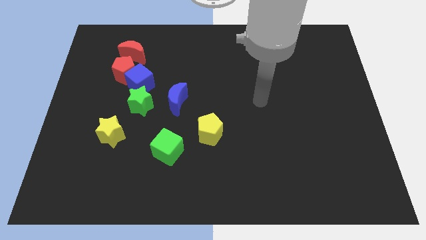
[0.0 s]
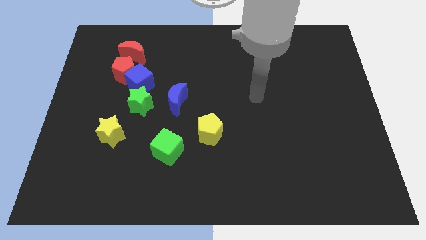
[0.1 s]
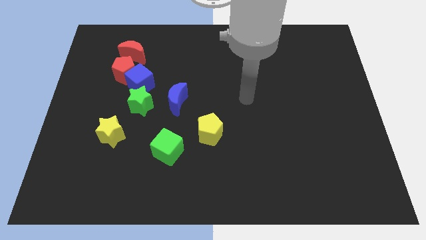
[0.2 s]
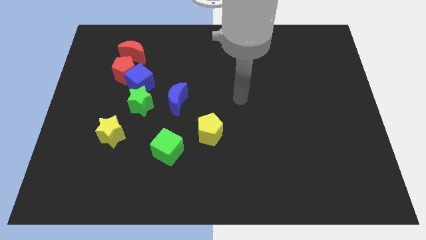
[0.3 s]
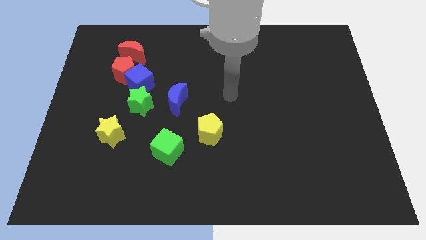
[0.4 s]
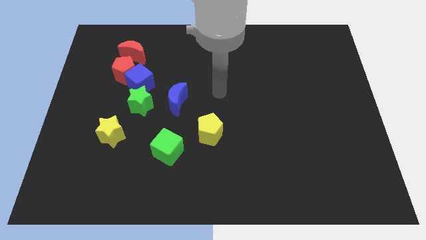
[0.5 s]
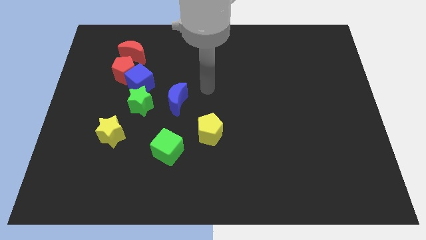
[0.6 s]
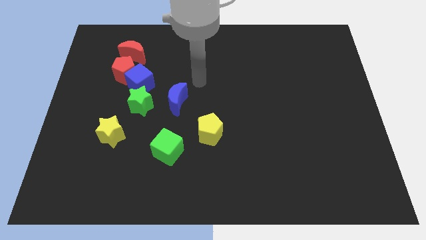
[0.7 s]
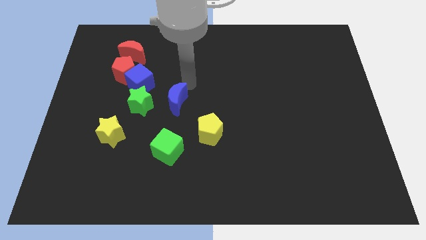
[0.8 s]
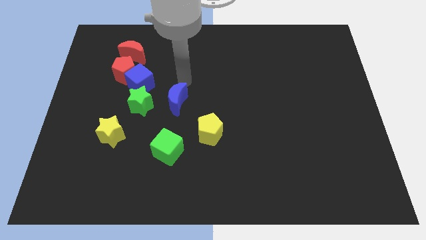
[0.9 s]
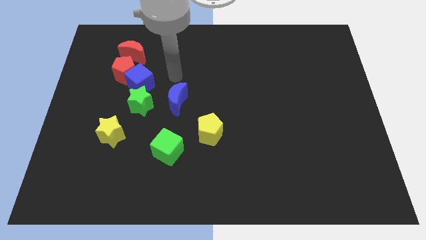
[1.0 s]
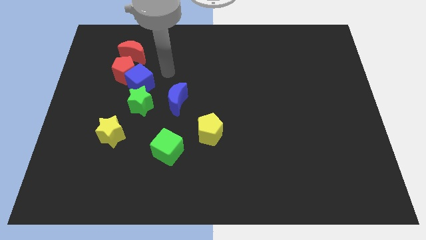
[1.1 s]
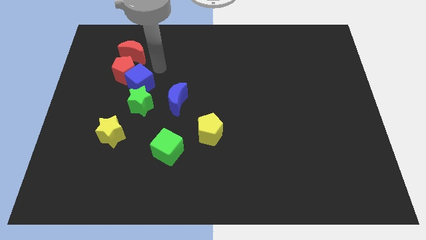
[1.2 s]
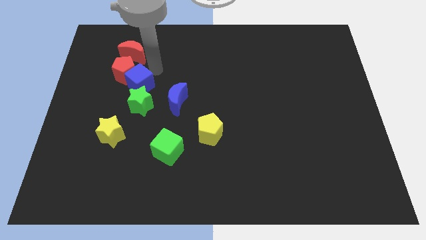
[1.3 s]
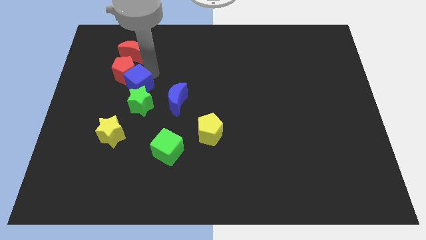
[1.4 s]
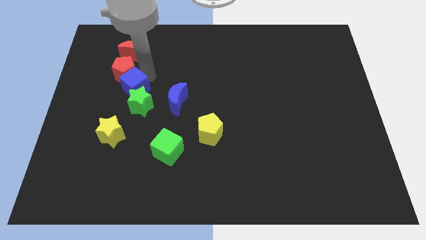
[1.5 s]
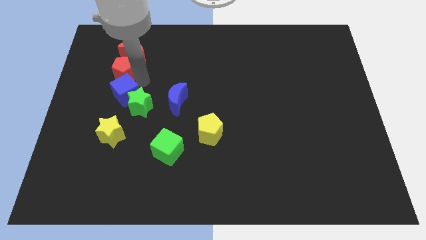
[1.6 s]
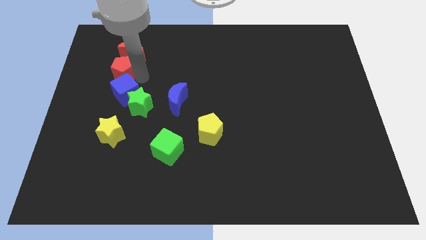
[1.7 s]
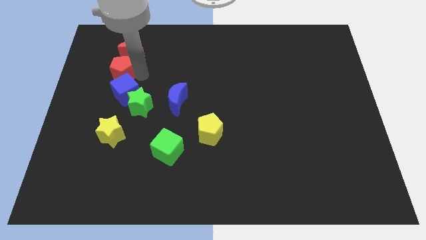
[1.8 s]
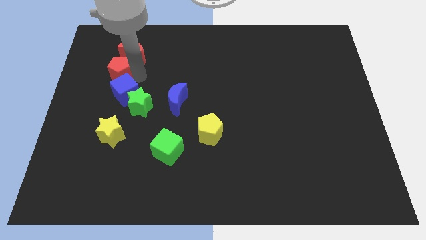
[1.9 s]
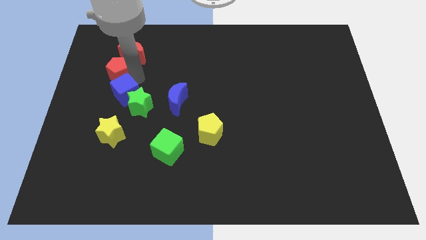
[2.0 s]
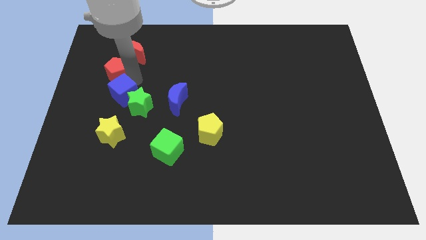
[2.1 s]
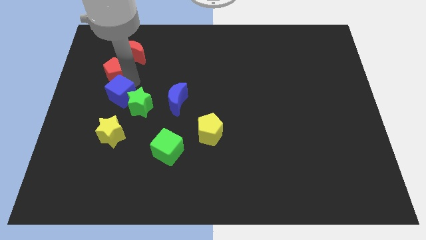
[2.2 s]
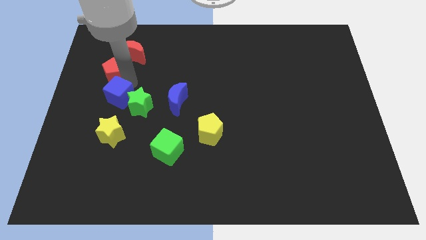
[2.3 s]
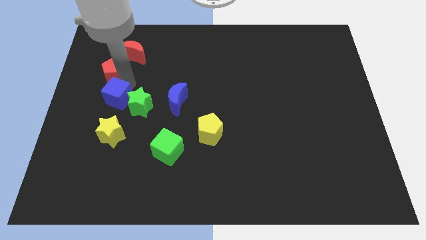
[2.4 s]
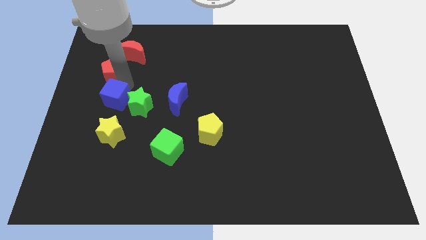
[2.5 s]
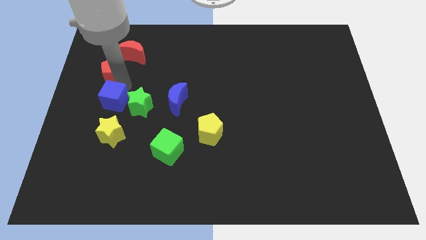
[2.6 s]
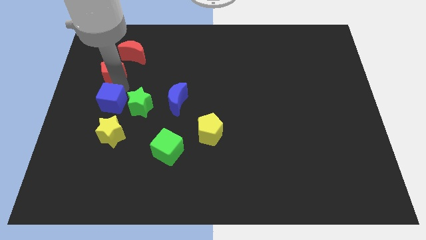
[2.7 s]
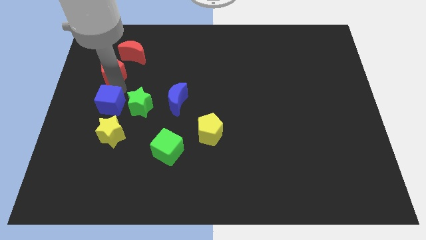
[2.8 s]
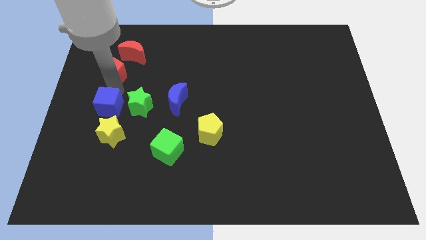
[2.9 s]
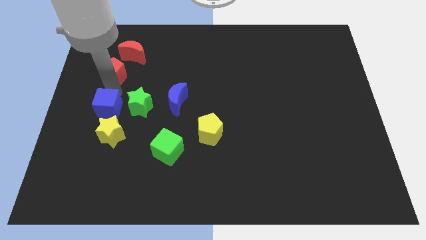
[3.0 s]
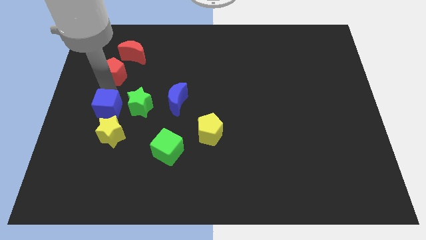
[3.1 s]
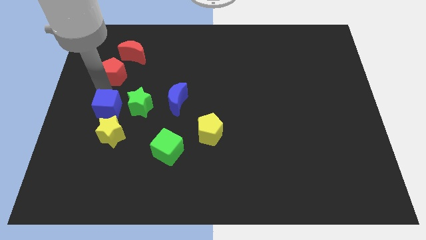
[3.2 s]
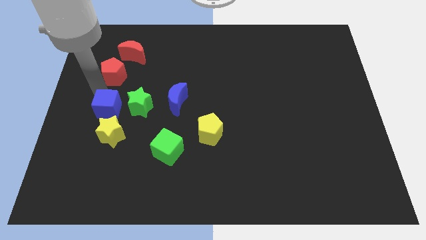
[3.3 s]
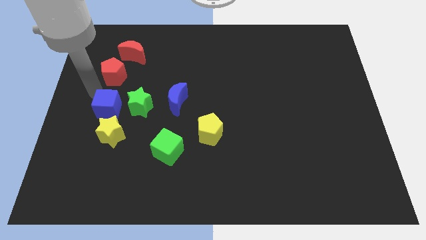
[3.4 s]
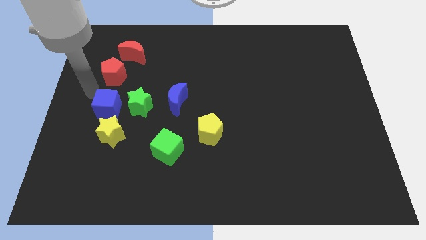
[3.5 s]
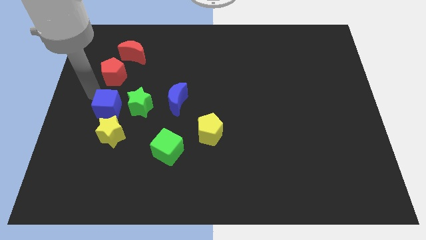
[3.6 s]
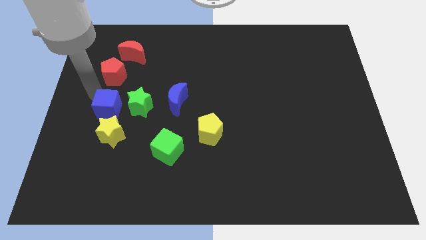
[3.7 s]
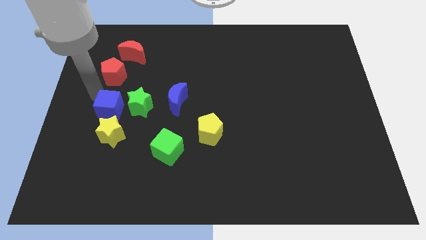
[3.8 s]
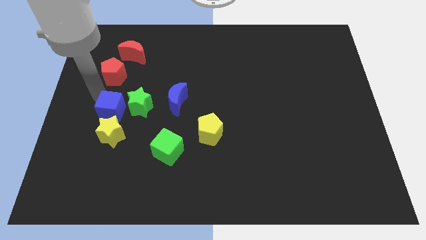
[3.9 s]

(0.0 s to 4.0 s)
push the blue cube somewhat downwards

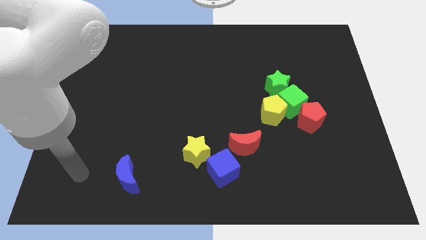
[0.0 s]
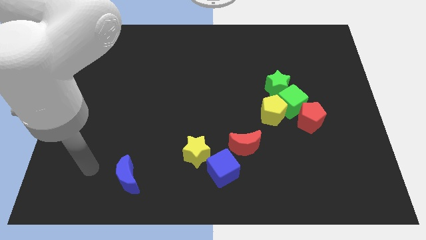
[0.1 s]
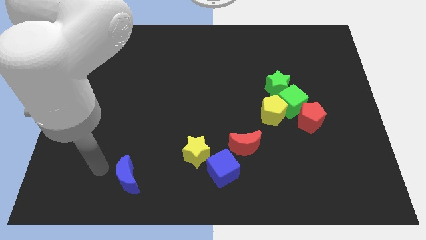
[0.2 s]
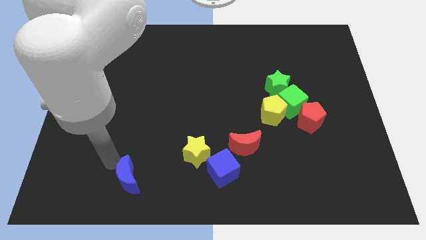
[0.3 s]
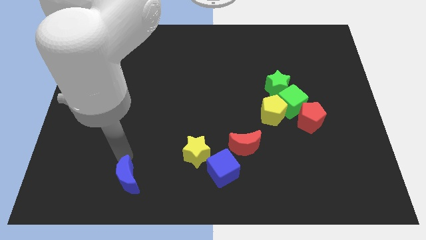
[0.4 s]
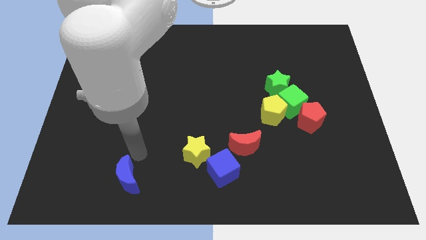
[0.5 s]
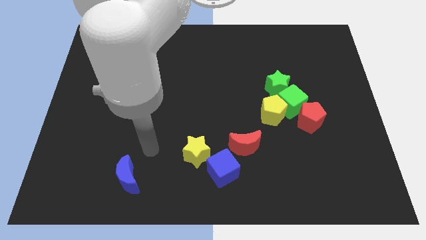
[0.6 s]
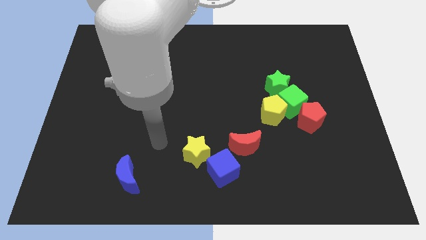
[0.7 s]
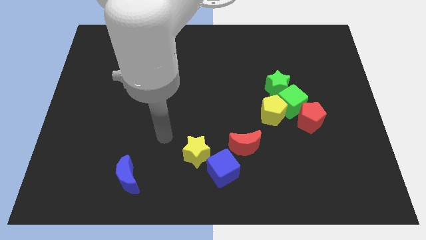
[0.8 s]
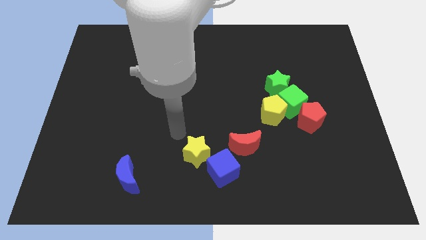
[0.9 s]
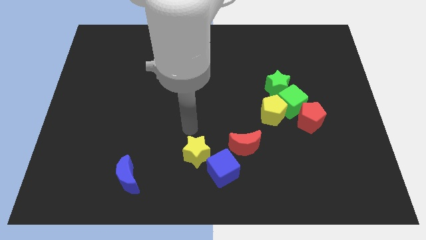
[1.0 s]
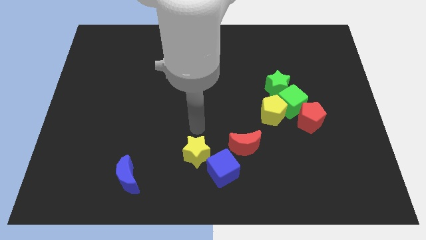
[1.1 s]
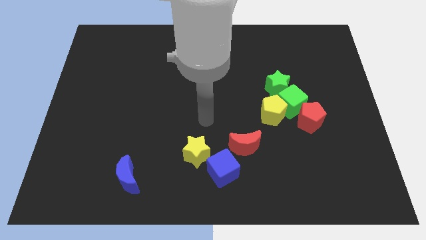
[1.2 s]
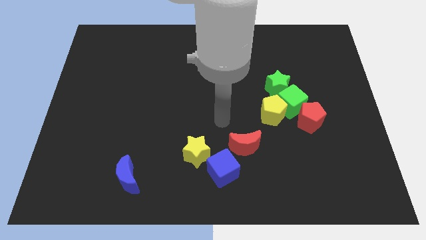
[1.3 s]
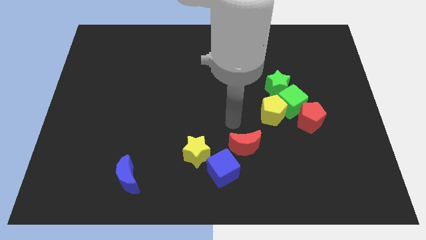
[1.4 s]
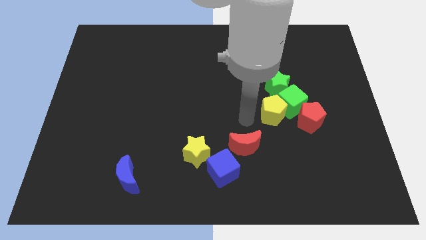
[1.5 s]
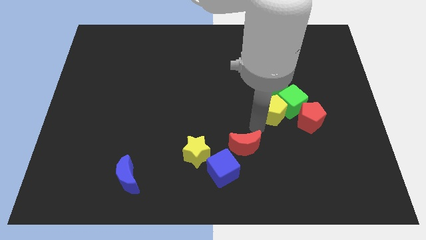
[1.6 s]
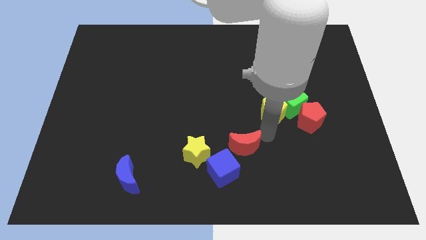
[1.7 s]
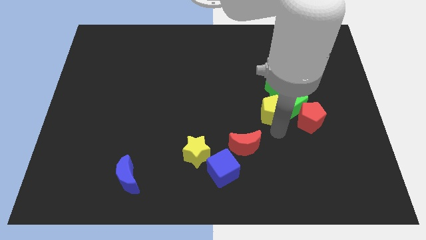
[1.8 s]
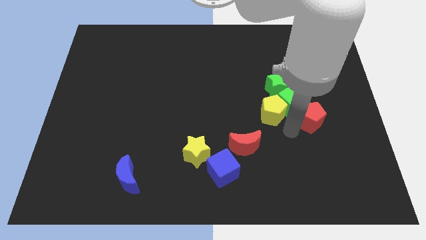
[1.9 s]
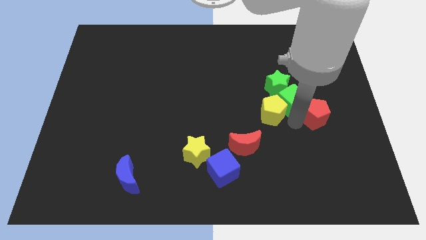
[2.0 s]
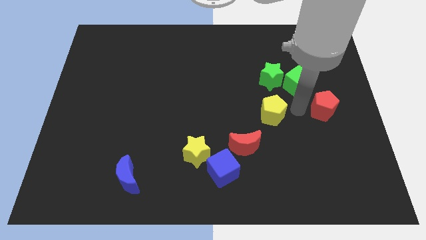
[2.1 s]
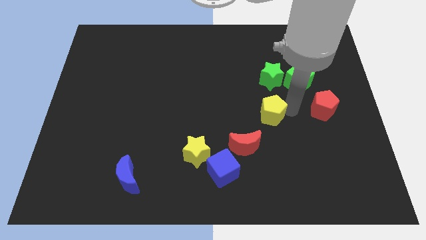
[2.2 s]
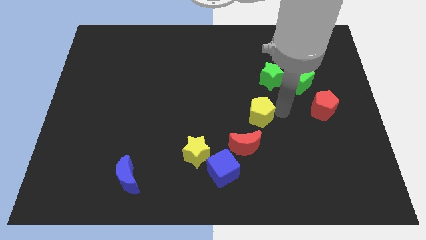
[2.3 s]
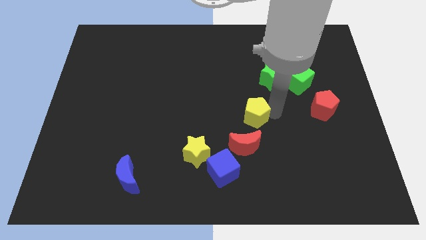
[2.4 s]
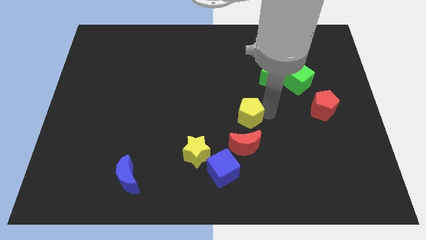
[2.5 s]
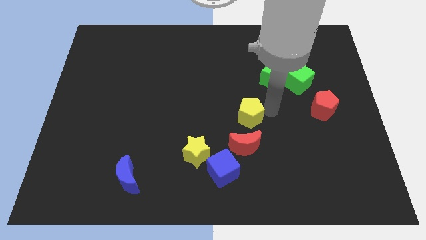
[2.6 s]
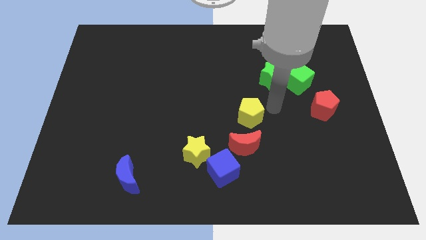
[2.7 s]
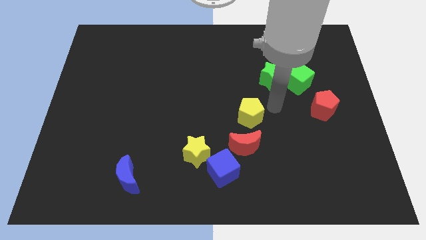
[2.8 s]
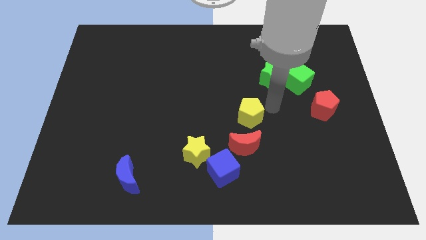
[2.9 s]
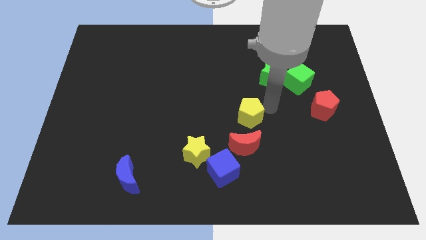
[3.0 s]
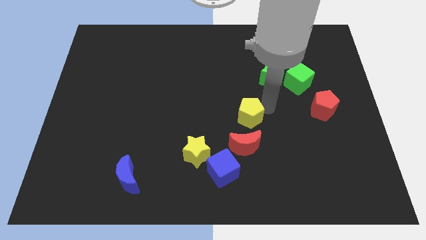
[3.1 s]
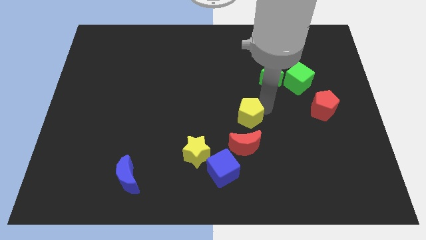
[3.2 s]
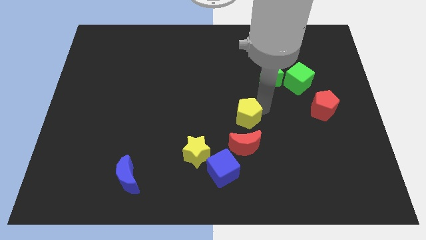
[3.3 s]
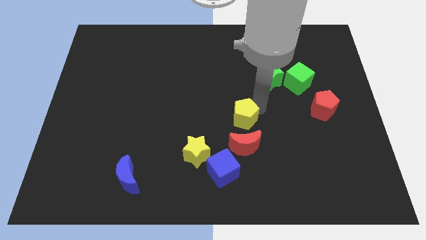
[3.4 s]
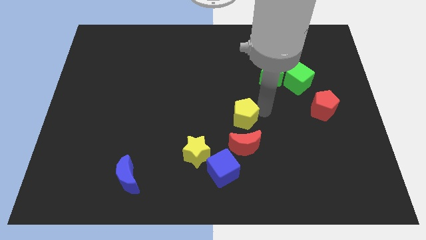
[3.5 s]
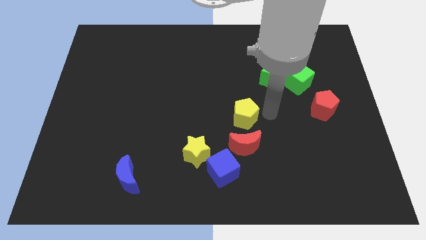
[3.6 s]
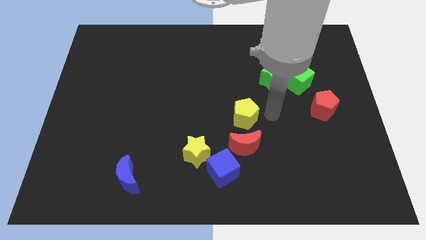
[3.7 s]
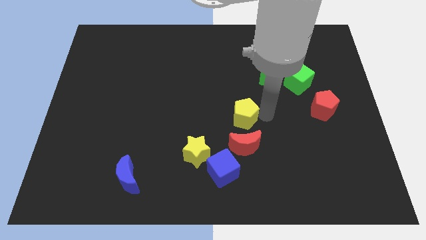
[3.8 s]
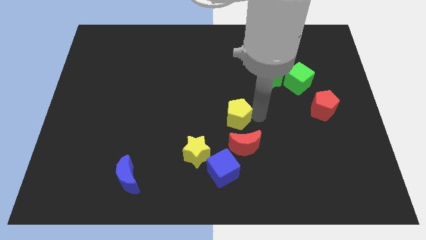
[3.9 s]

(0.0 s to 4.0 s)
slide the yellow pentagon left somewhat

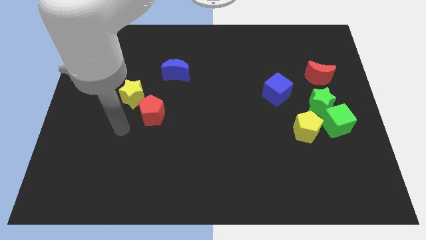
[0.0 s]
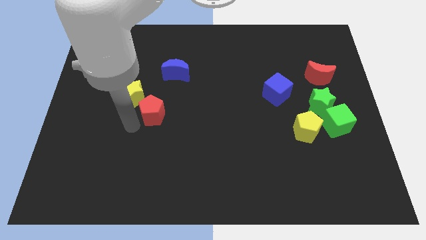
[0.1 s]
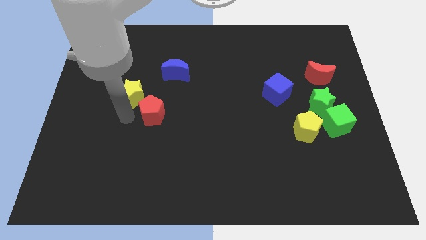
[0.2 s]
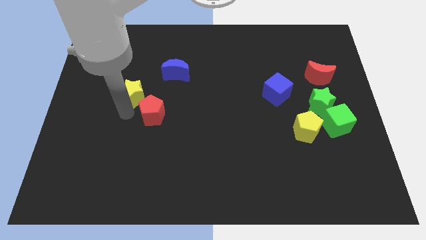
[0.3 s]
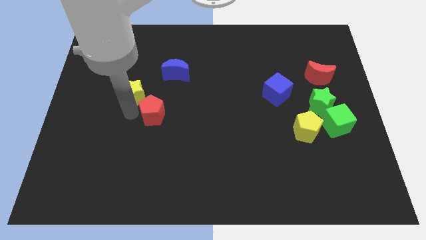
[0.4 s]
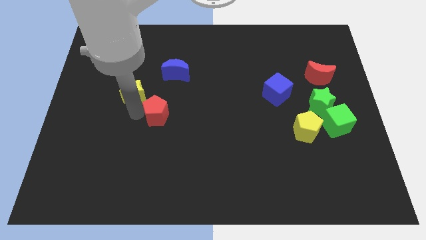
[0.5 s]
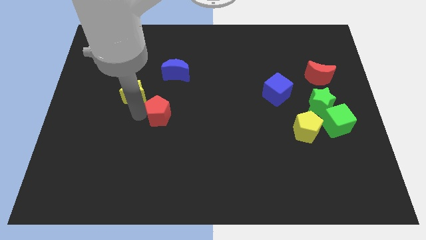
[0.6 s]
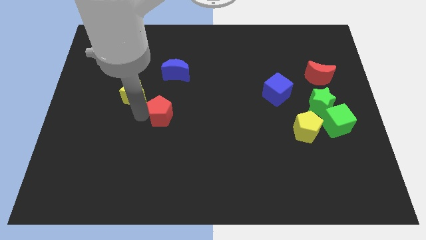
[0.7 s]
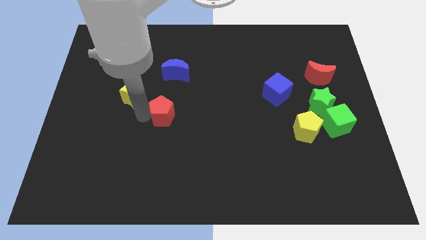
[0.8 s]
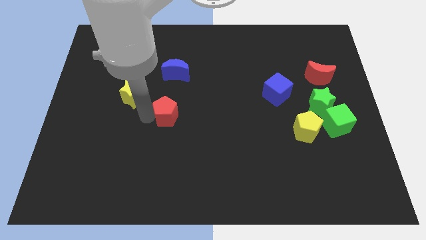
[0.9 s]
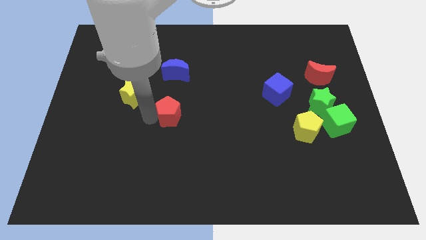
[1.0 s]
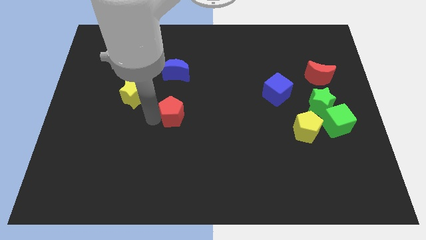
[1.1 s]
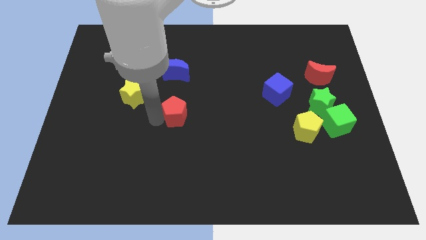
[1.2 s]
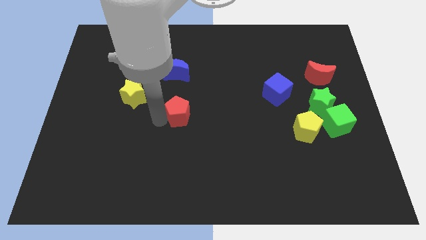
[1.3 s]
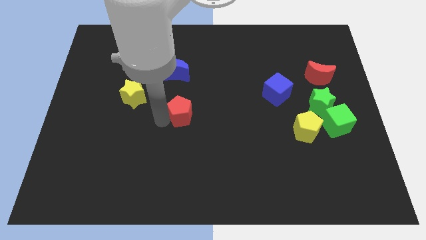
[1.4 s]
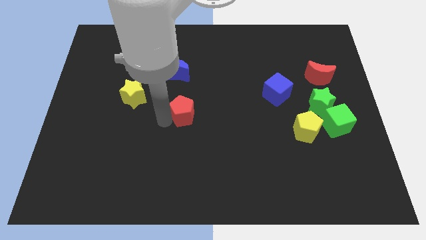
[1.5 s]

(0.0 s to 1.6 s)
slide the red pentagon a bit right
